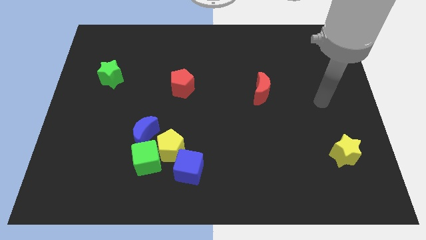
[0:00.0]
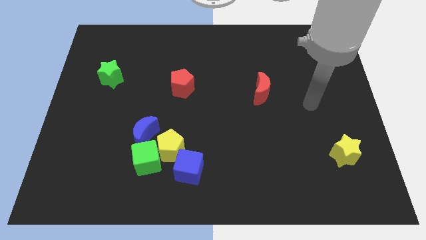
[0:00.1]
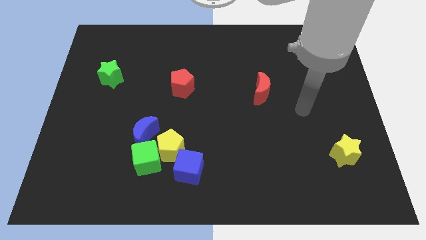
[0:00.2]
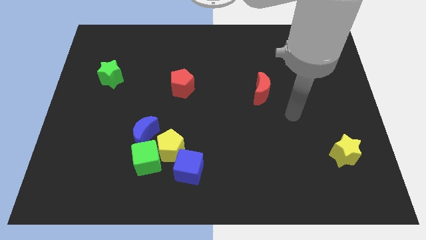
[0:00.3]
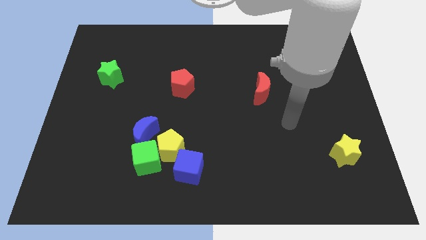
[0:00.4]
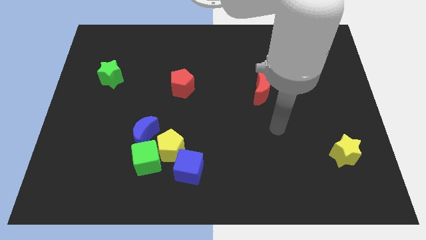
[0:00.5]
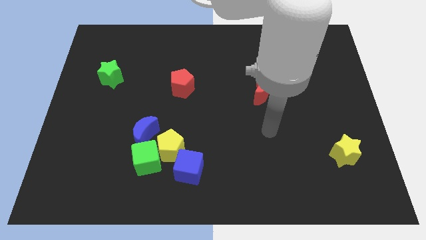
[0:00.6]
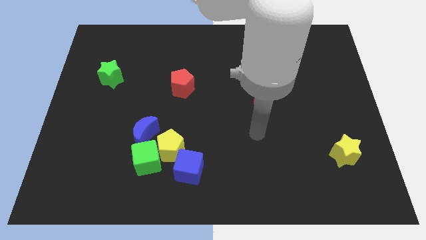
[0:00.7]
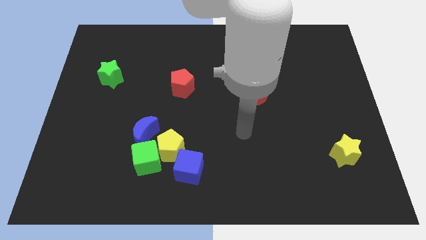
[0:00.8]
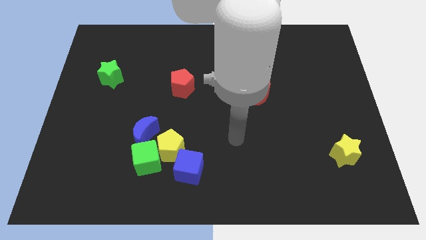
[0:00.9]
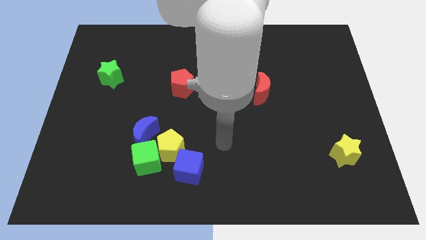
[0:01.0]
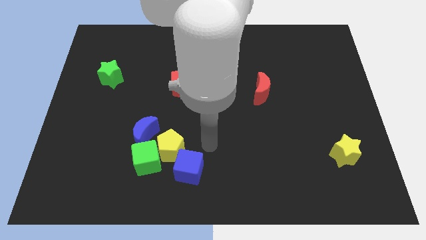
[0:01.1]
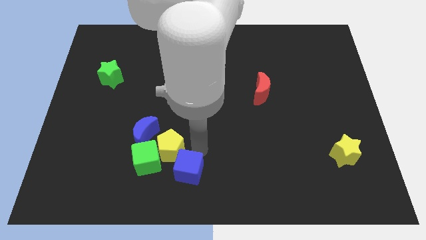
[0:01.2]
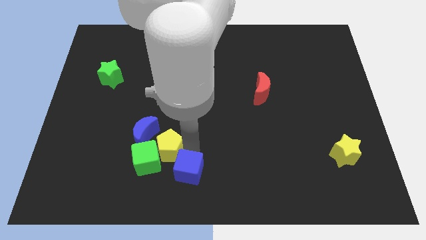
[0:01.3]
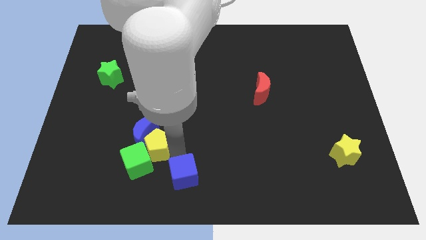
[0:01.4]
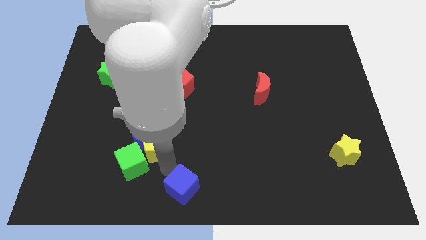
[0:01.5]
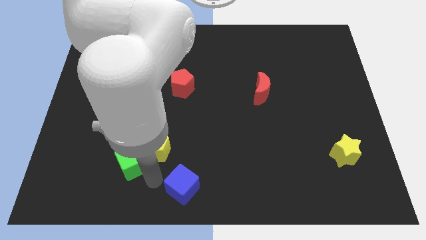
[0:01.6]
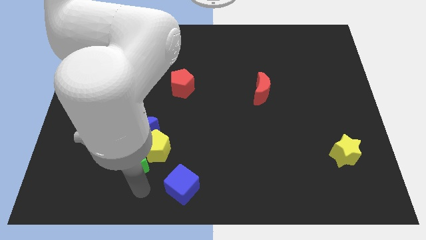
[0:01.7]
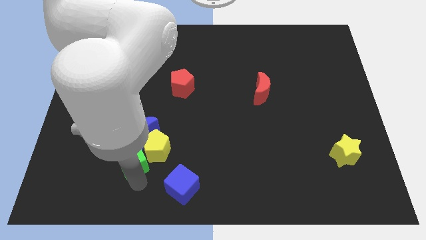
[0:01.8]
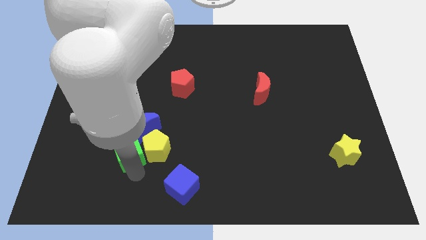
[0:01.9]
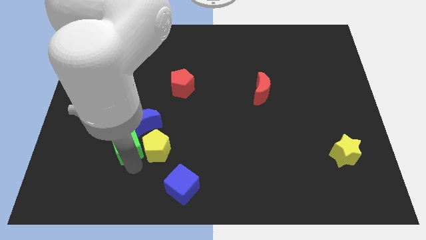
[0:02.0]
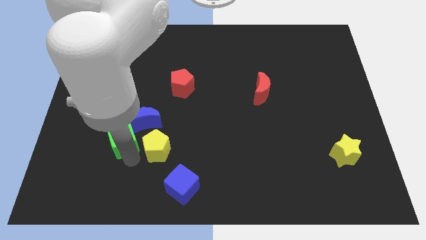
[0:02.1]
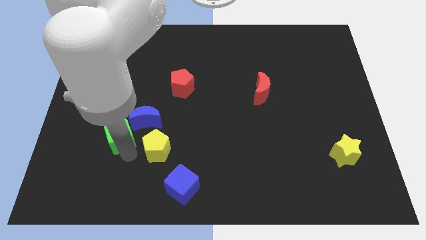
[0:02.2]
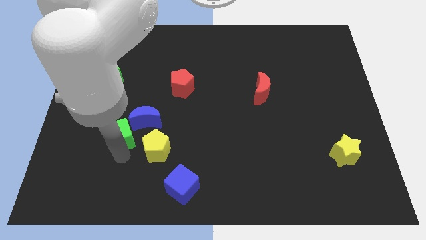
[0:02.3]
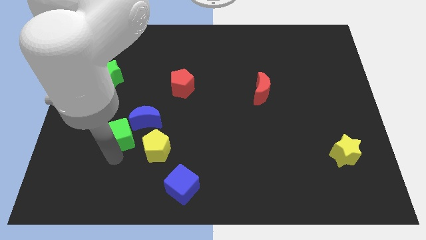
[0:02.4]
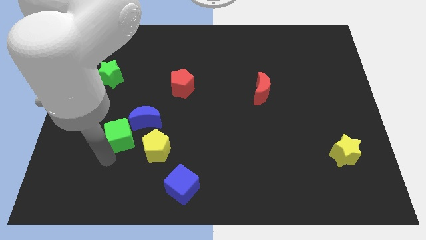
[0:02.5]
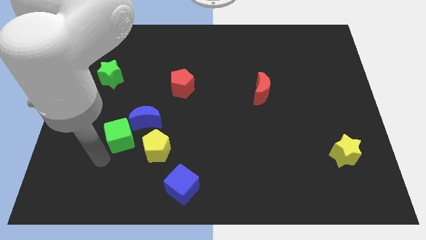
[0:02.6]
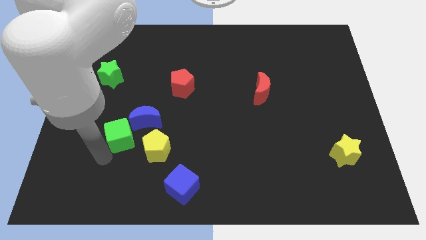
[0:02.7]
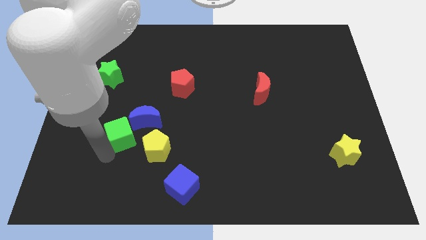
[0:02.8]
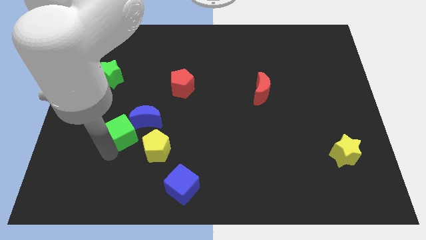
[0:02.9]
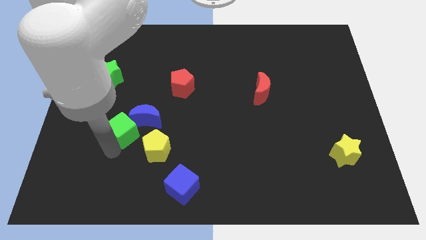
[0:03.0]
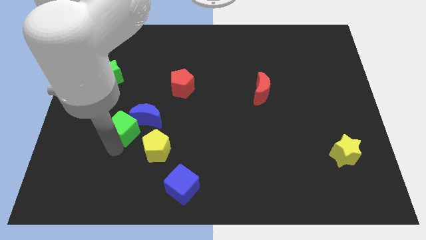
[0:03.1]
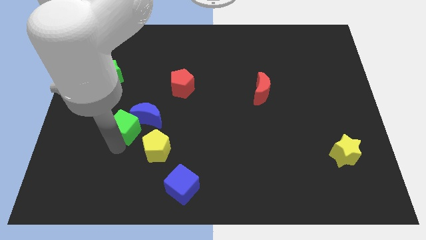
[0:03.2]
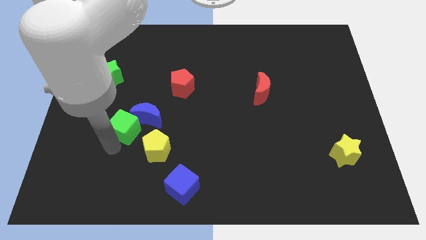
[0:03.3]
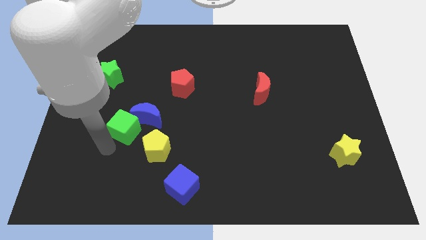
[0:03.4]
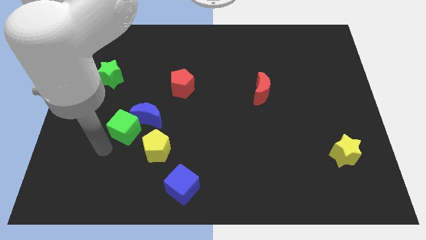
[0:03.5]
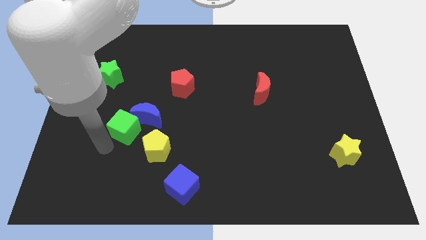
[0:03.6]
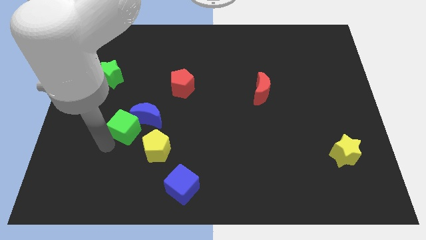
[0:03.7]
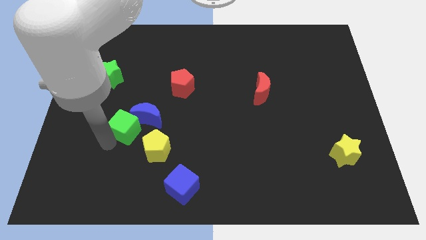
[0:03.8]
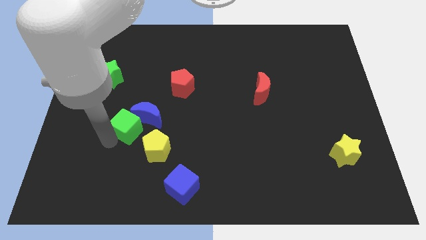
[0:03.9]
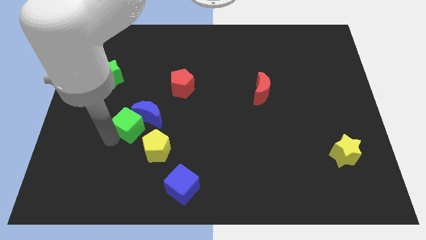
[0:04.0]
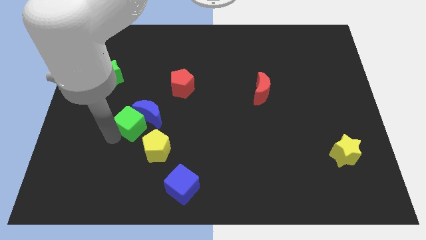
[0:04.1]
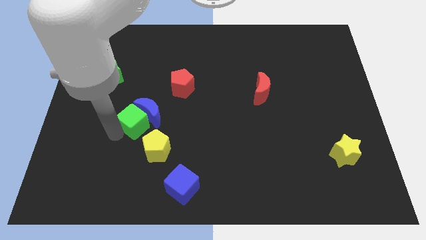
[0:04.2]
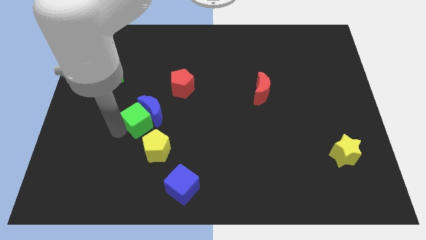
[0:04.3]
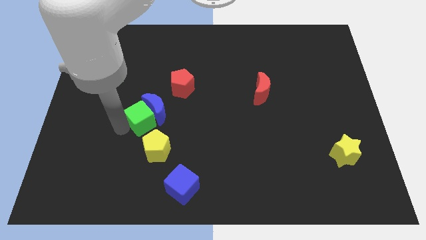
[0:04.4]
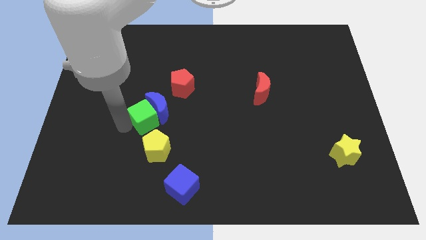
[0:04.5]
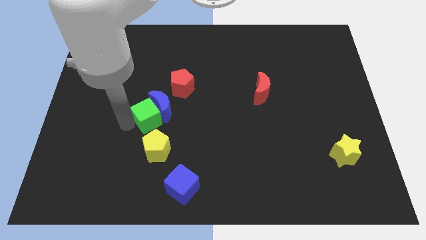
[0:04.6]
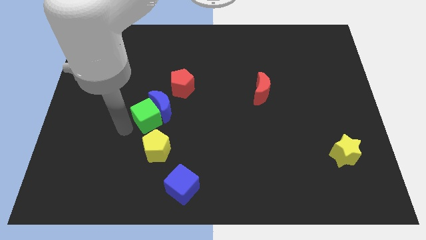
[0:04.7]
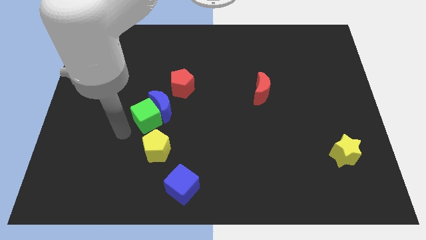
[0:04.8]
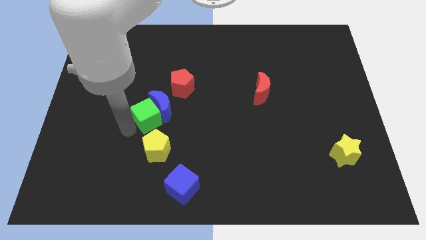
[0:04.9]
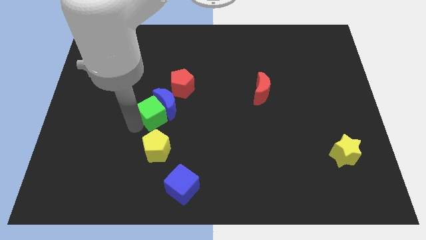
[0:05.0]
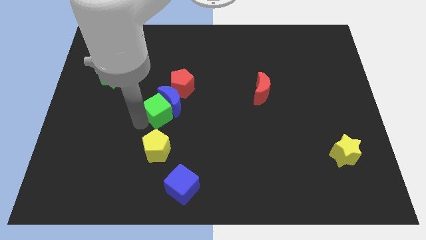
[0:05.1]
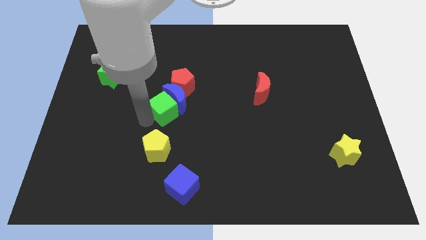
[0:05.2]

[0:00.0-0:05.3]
put the green cube to the middle of the board

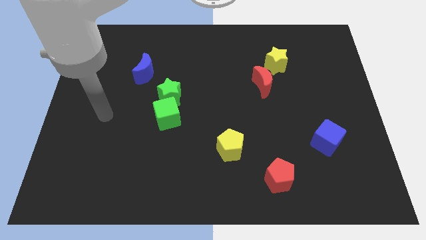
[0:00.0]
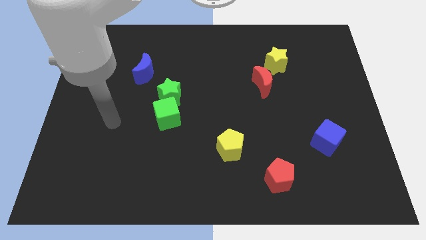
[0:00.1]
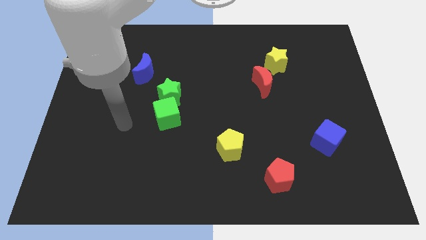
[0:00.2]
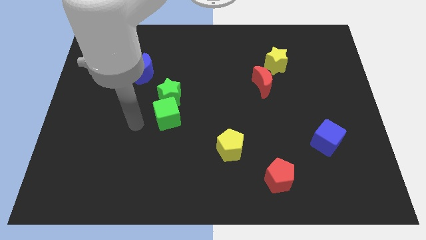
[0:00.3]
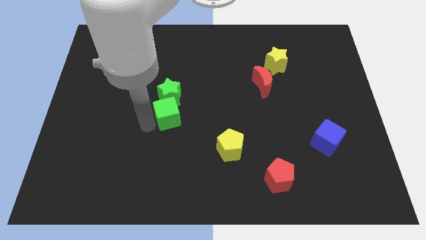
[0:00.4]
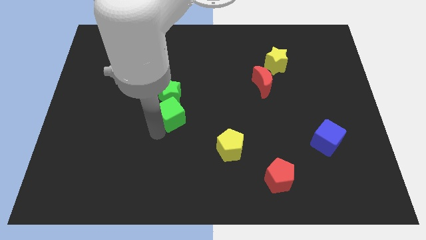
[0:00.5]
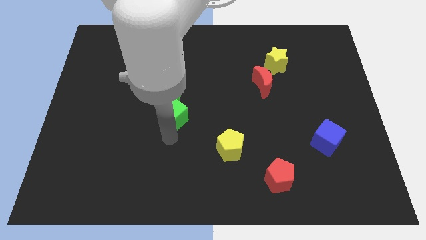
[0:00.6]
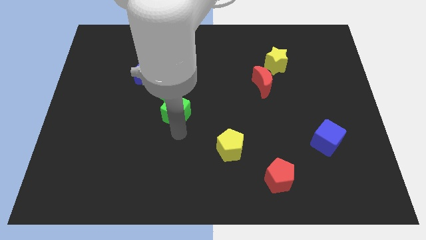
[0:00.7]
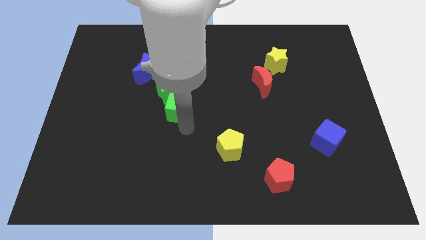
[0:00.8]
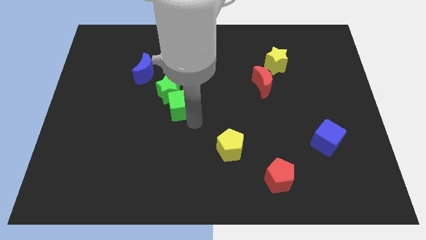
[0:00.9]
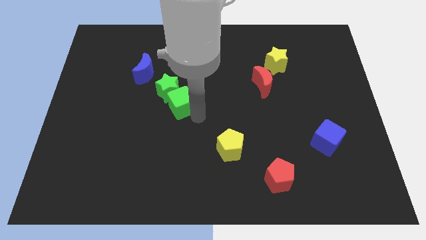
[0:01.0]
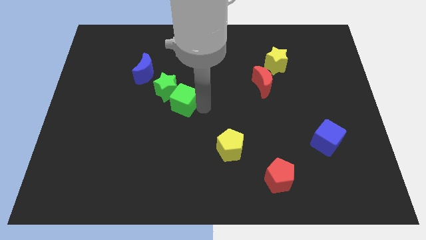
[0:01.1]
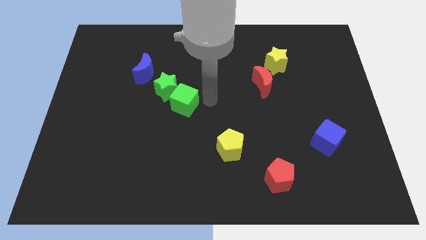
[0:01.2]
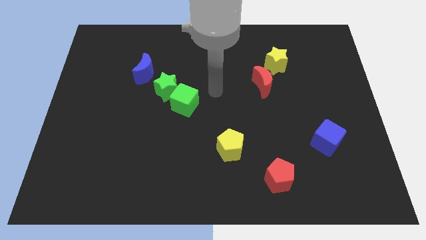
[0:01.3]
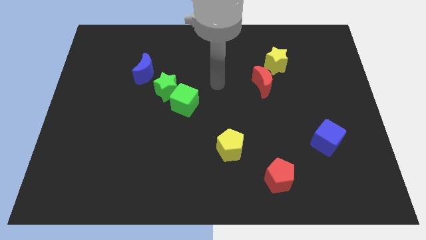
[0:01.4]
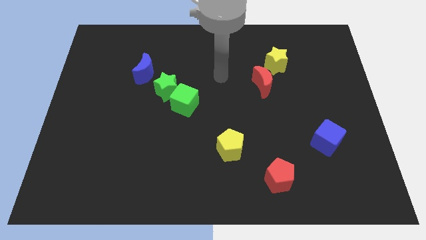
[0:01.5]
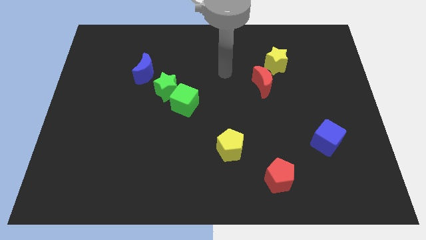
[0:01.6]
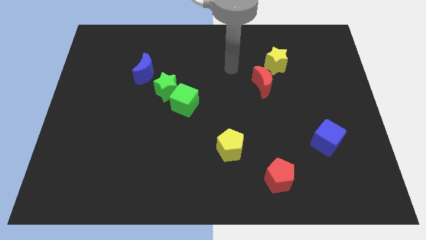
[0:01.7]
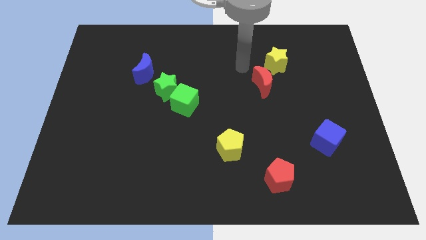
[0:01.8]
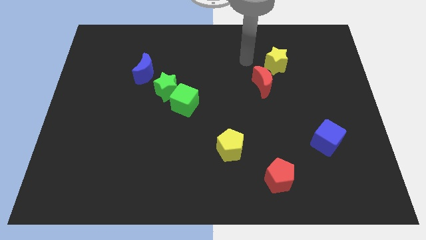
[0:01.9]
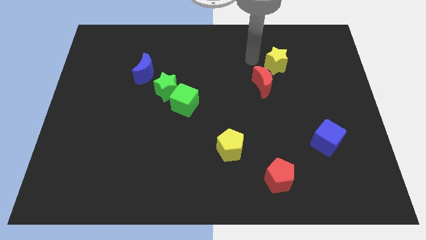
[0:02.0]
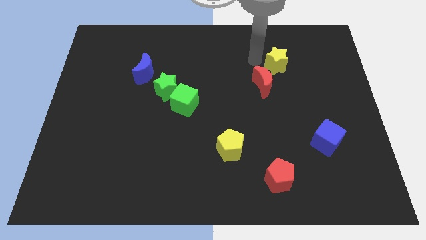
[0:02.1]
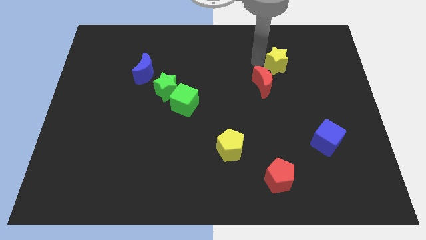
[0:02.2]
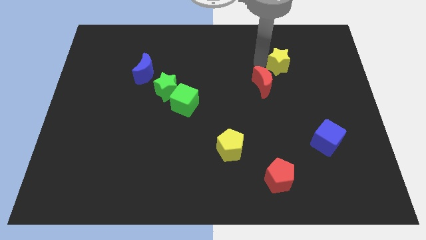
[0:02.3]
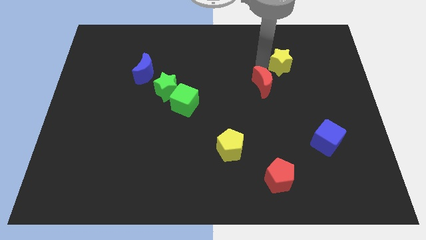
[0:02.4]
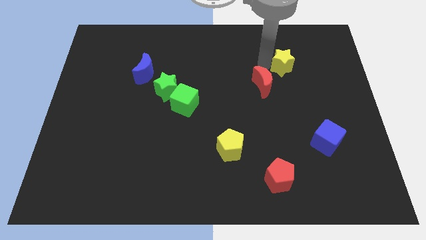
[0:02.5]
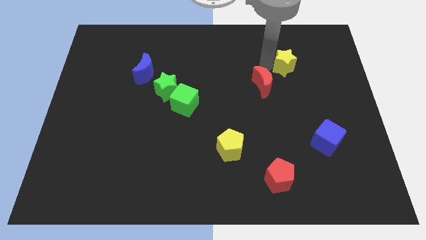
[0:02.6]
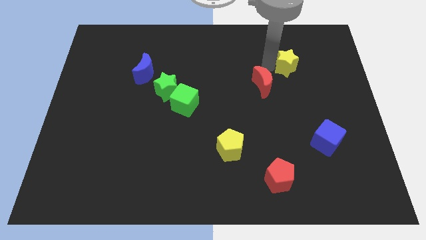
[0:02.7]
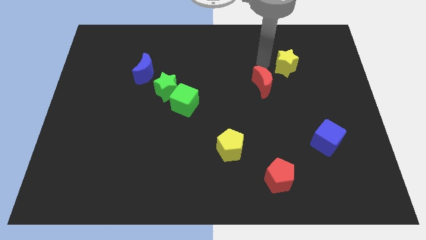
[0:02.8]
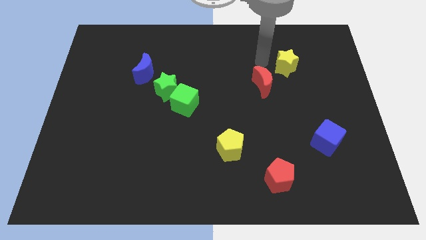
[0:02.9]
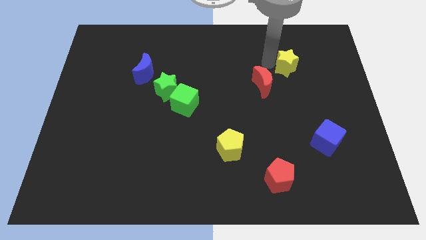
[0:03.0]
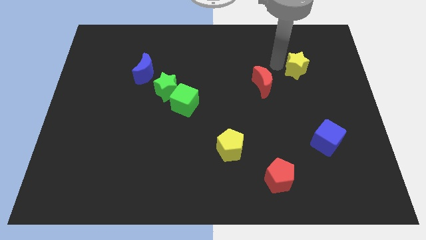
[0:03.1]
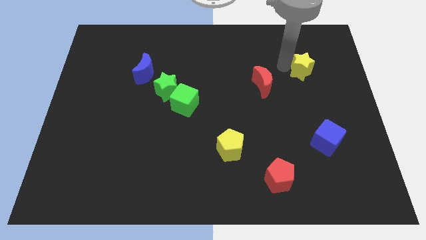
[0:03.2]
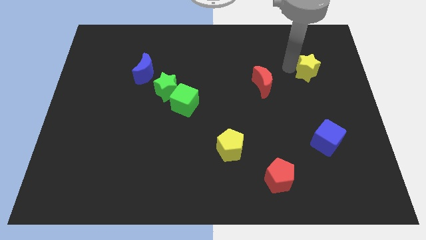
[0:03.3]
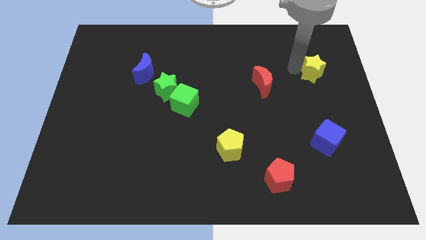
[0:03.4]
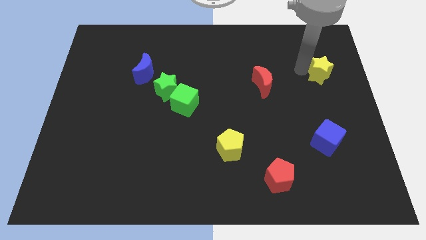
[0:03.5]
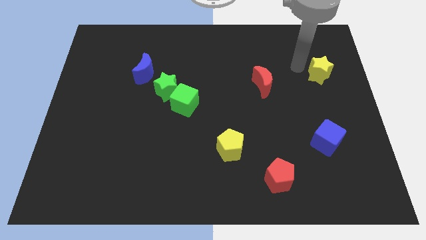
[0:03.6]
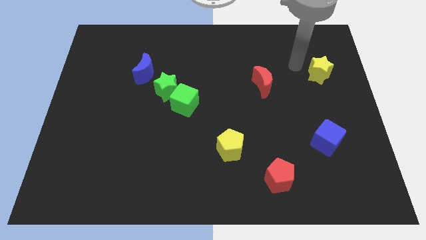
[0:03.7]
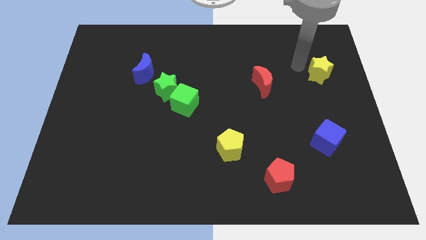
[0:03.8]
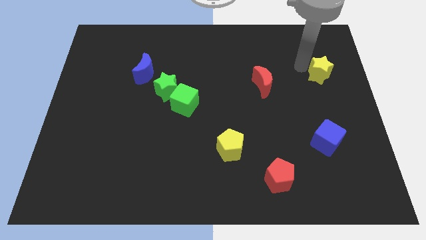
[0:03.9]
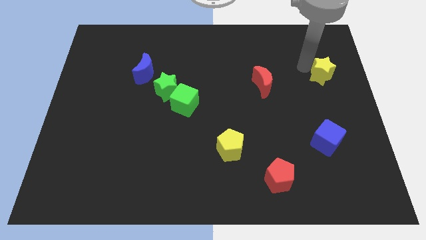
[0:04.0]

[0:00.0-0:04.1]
move the yellow star to the right side of the board
